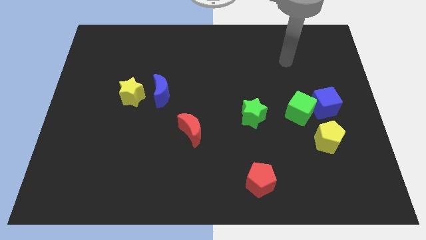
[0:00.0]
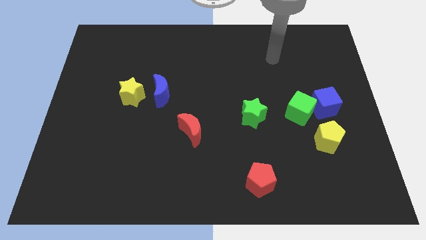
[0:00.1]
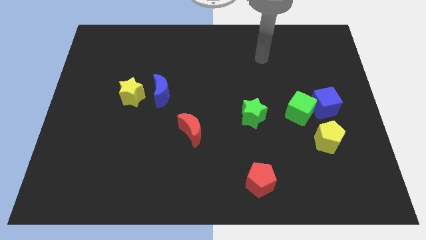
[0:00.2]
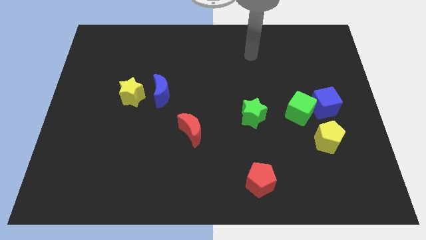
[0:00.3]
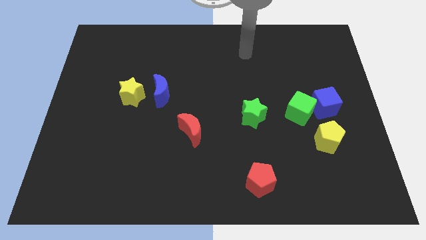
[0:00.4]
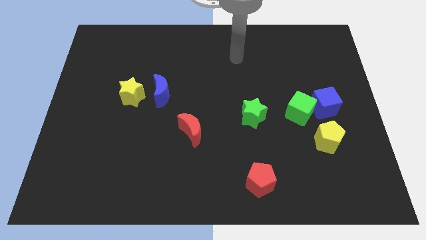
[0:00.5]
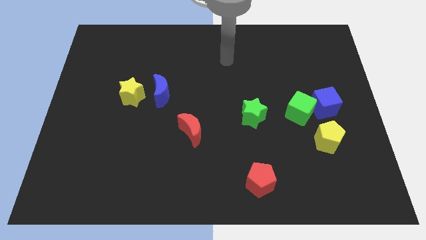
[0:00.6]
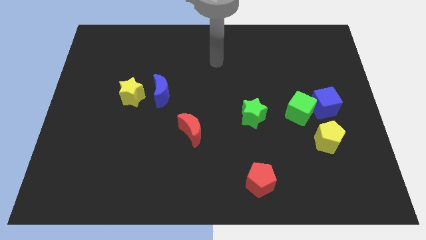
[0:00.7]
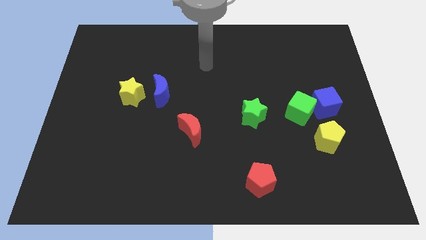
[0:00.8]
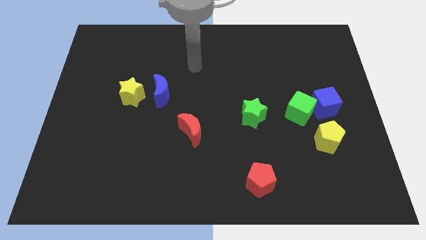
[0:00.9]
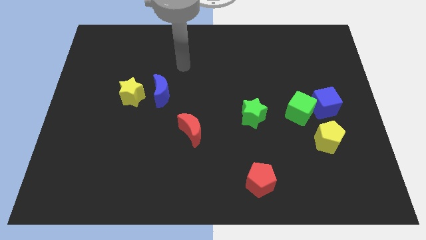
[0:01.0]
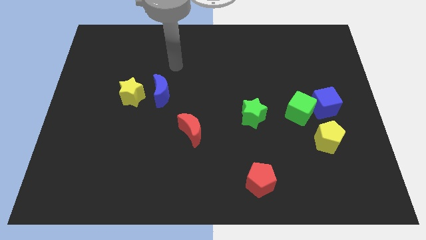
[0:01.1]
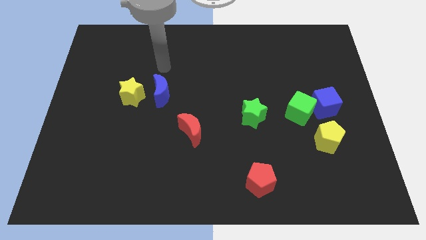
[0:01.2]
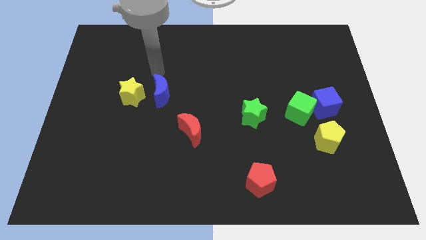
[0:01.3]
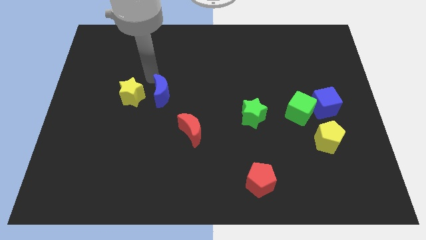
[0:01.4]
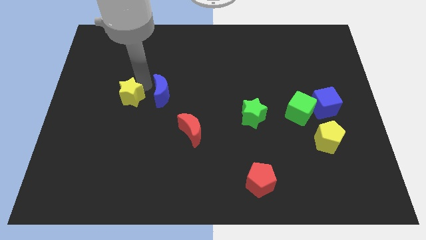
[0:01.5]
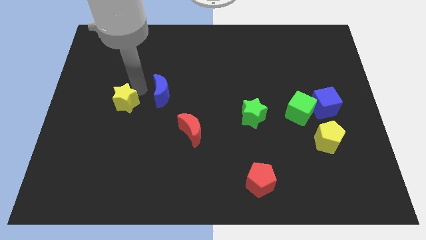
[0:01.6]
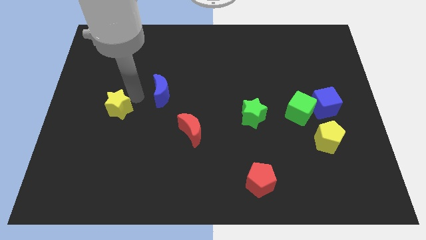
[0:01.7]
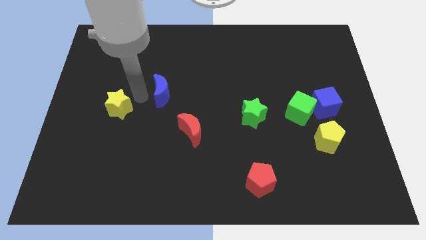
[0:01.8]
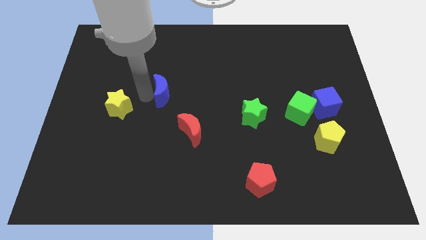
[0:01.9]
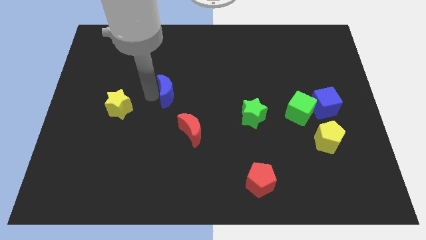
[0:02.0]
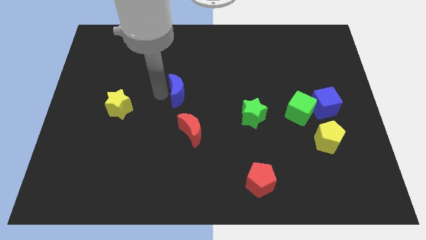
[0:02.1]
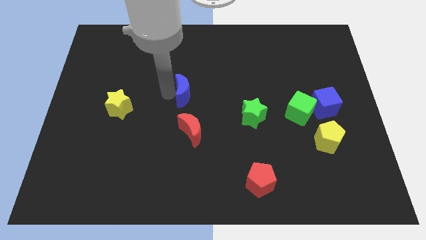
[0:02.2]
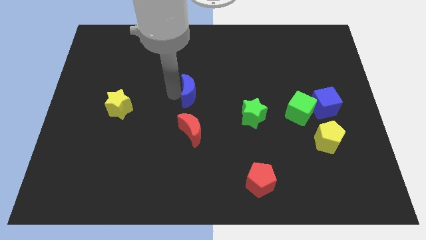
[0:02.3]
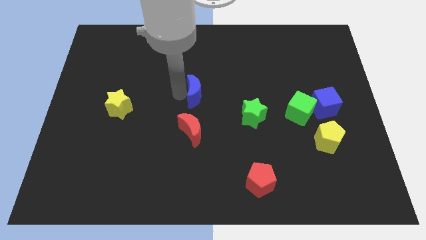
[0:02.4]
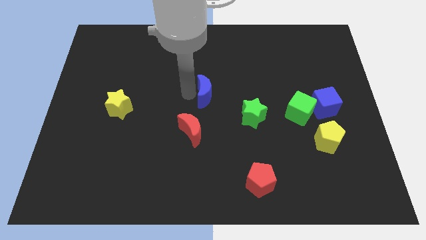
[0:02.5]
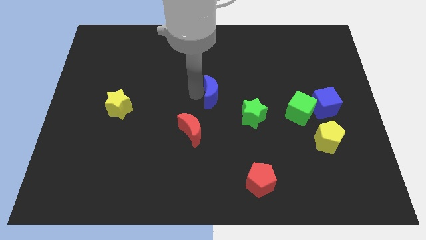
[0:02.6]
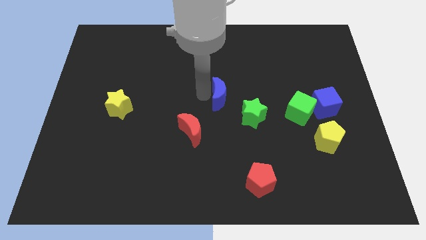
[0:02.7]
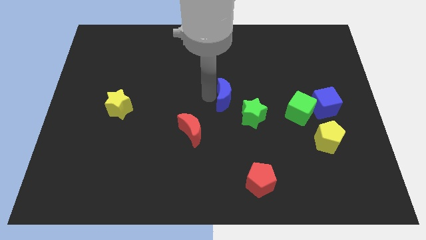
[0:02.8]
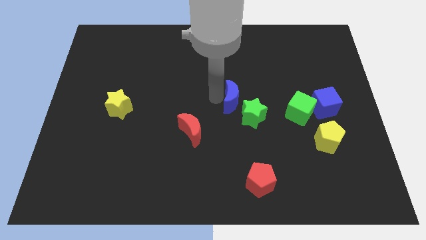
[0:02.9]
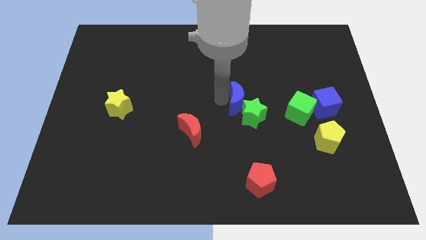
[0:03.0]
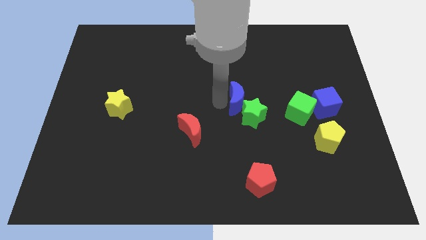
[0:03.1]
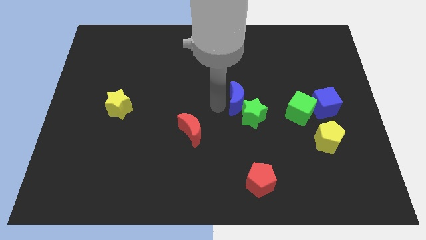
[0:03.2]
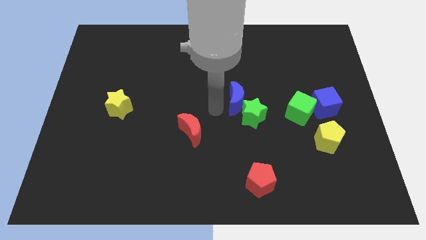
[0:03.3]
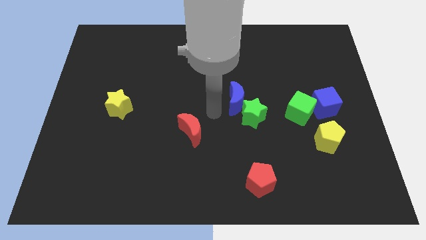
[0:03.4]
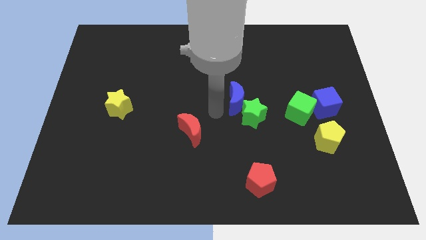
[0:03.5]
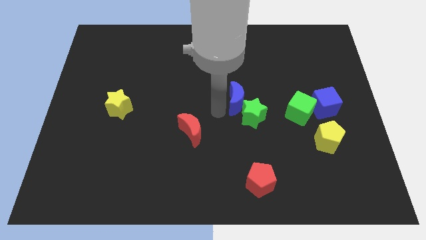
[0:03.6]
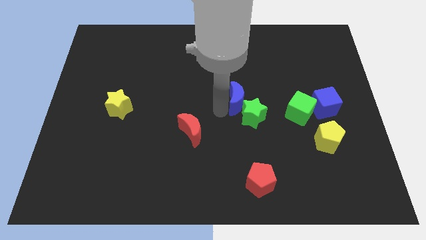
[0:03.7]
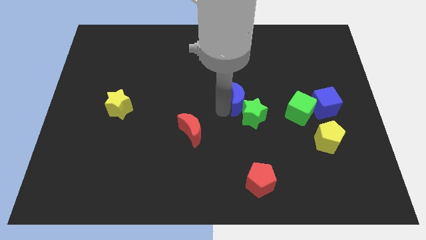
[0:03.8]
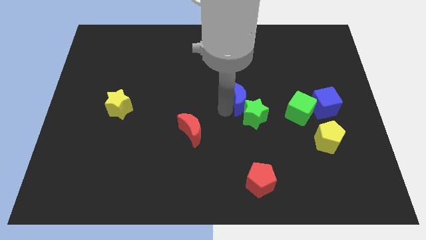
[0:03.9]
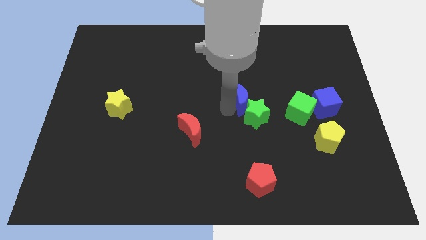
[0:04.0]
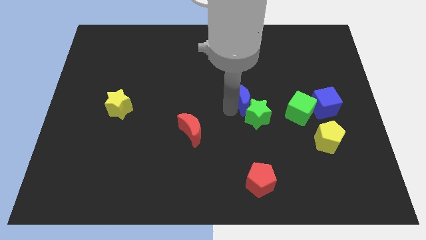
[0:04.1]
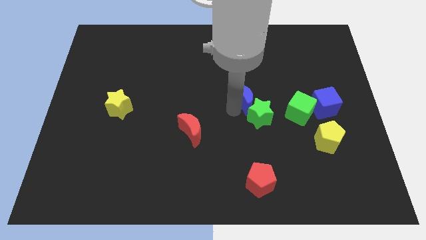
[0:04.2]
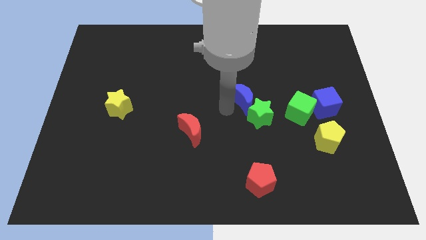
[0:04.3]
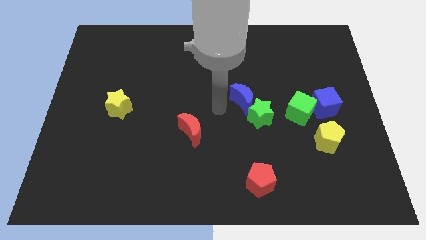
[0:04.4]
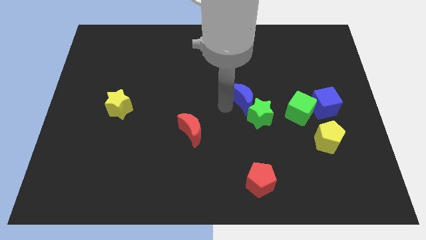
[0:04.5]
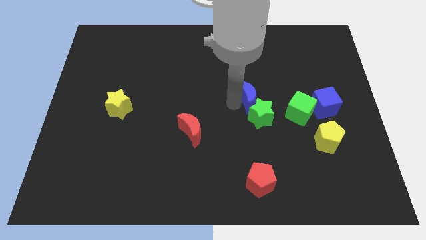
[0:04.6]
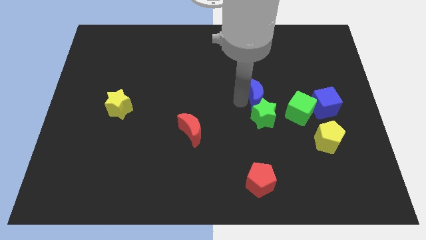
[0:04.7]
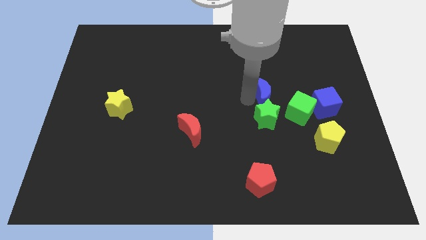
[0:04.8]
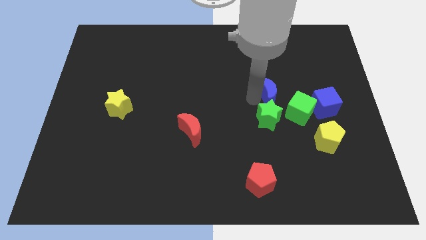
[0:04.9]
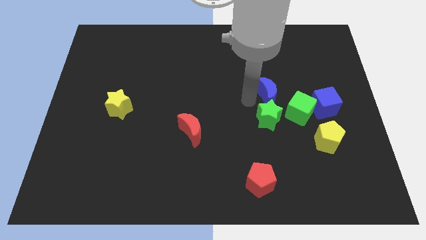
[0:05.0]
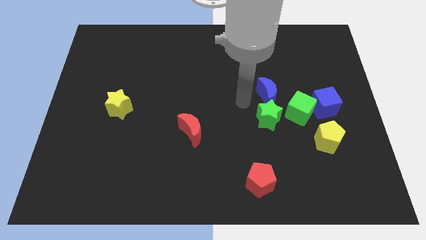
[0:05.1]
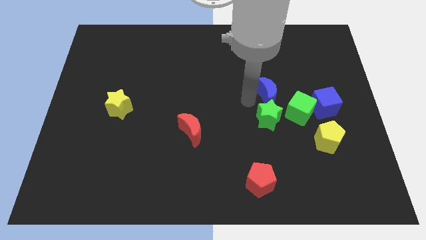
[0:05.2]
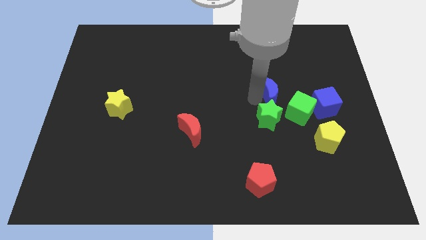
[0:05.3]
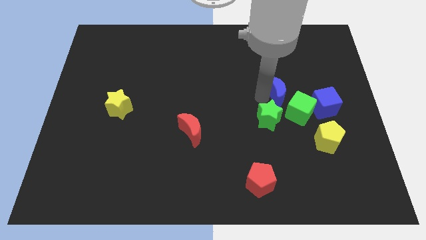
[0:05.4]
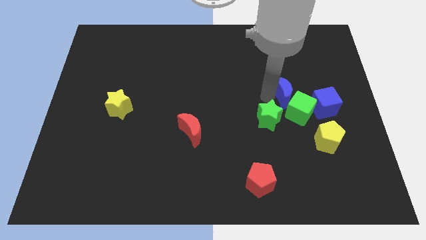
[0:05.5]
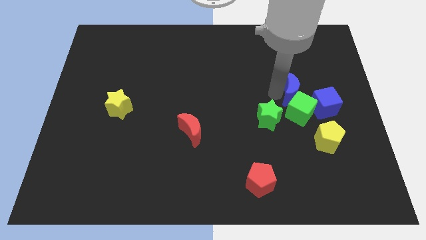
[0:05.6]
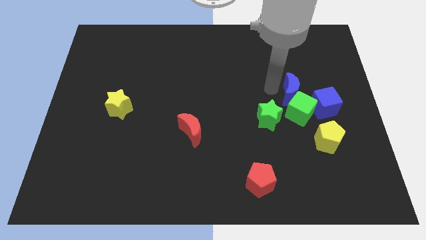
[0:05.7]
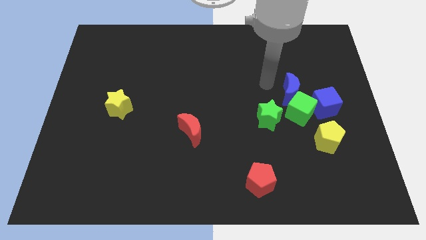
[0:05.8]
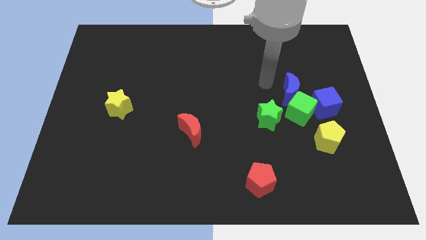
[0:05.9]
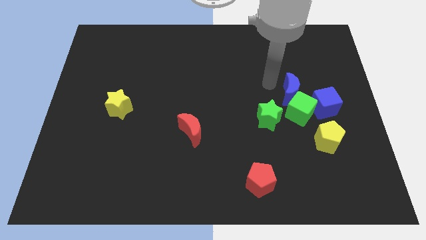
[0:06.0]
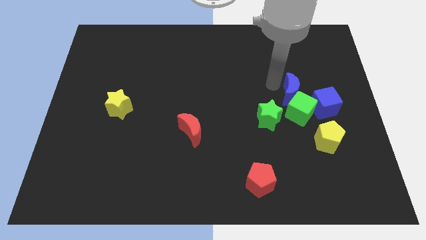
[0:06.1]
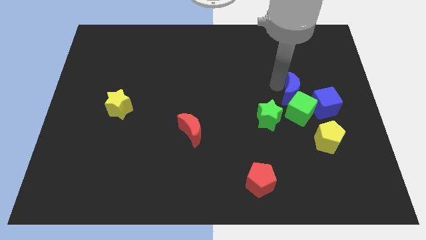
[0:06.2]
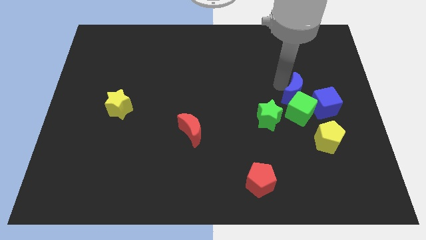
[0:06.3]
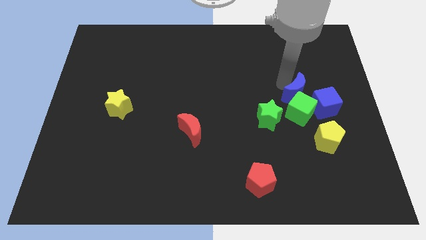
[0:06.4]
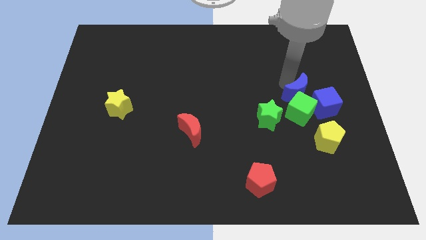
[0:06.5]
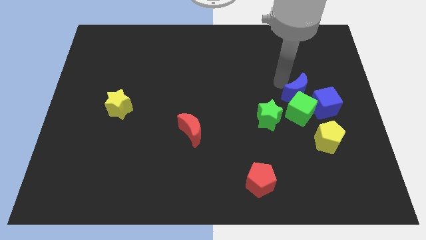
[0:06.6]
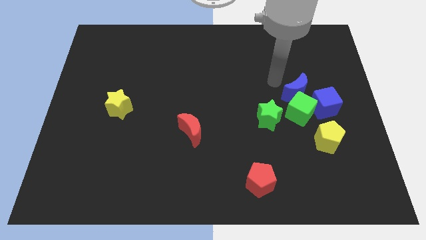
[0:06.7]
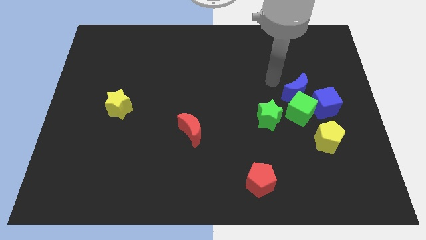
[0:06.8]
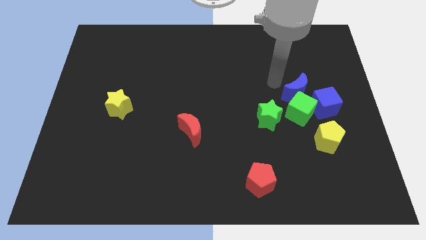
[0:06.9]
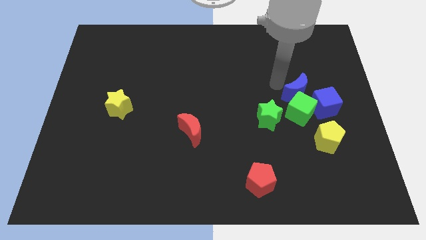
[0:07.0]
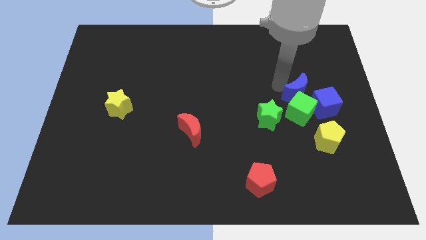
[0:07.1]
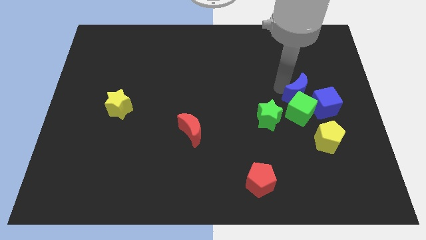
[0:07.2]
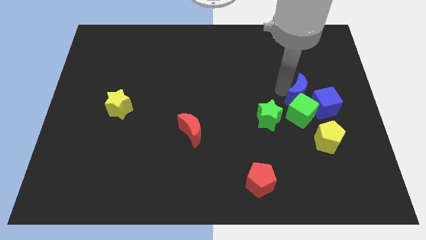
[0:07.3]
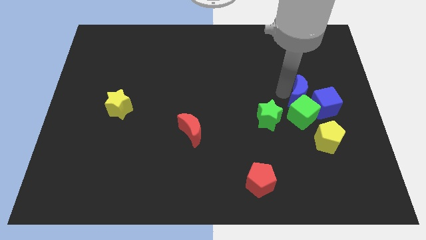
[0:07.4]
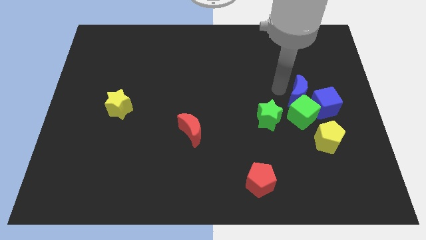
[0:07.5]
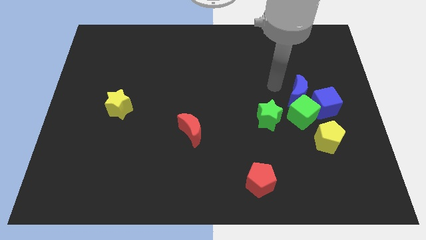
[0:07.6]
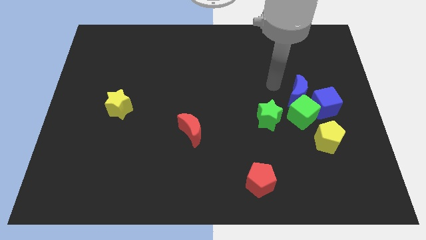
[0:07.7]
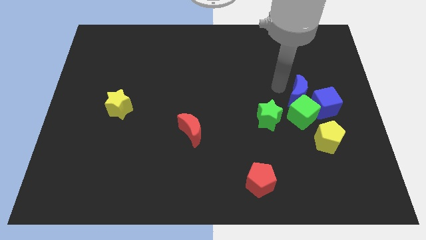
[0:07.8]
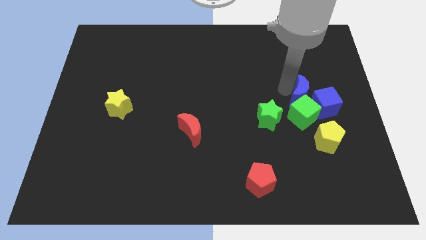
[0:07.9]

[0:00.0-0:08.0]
slide the blue moon next to the blue cube
